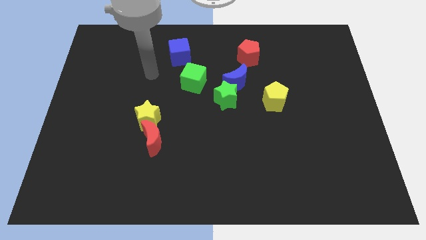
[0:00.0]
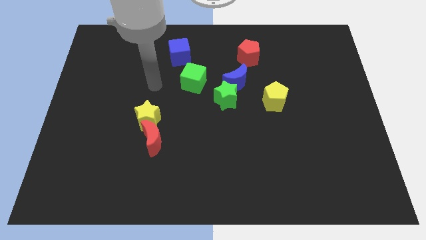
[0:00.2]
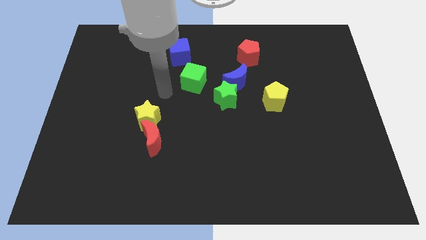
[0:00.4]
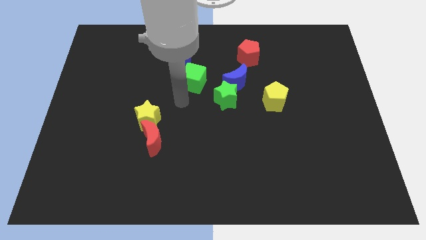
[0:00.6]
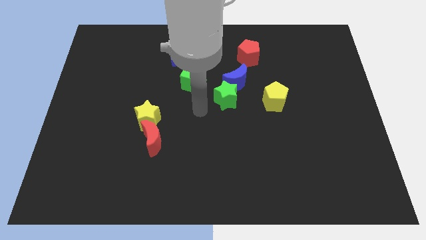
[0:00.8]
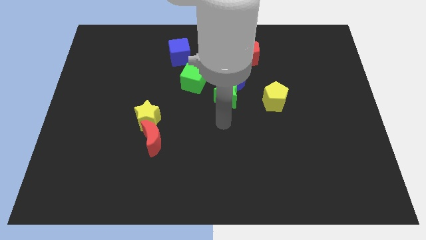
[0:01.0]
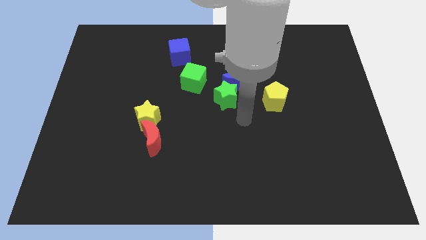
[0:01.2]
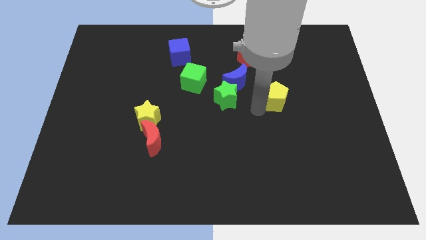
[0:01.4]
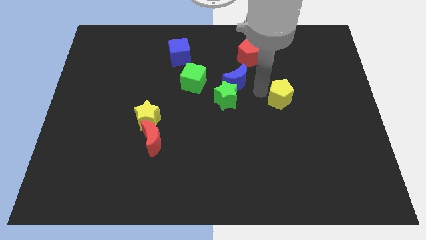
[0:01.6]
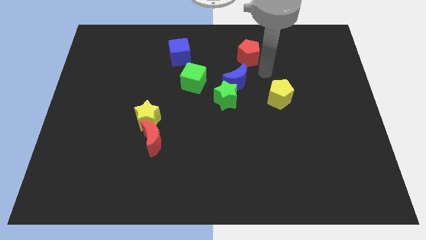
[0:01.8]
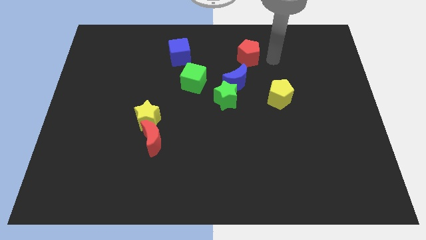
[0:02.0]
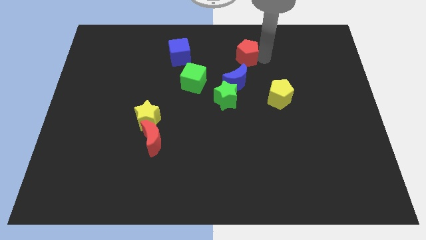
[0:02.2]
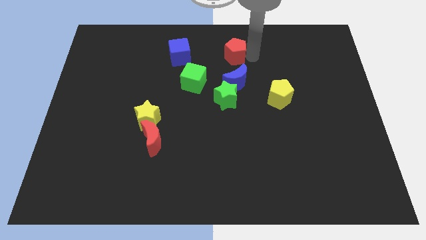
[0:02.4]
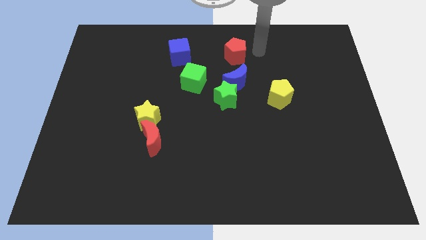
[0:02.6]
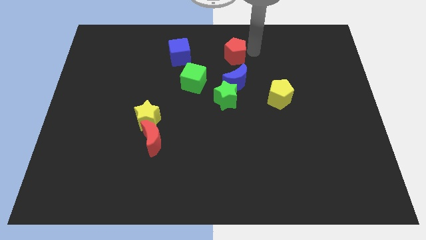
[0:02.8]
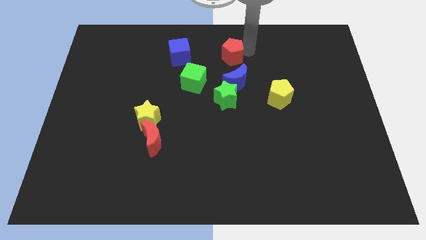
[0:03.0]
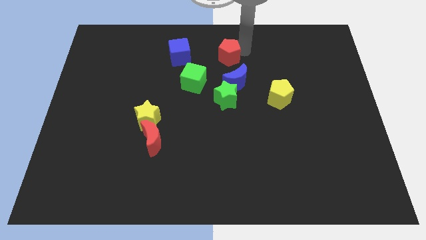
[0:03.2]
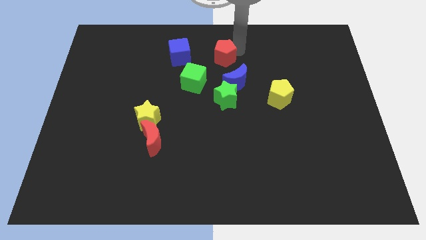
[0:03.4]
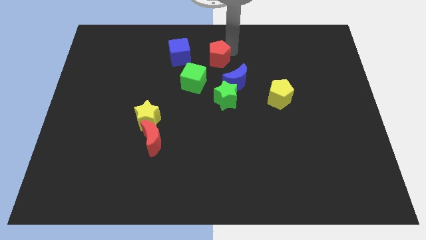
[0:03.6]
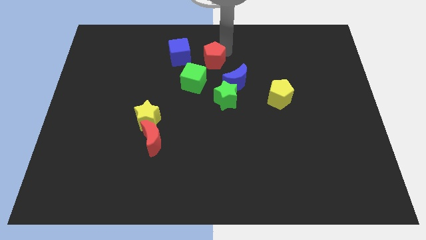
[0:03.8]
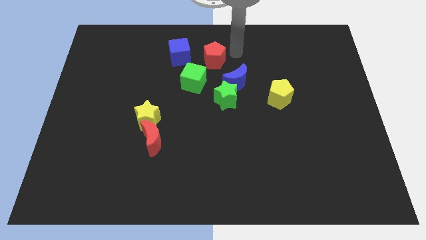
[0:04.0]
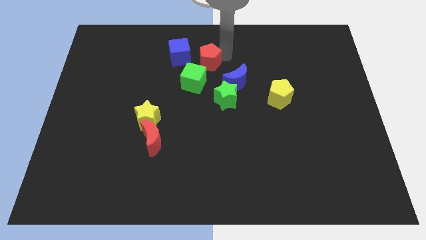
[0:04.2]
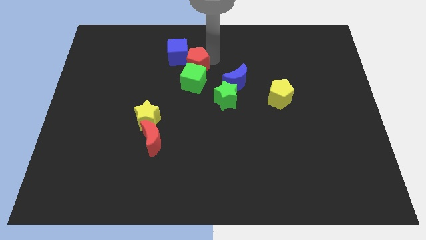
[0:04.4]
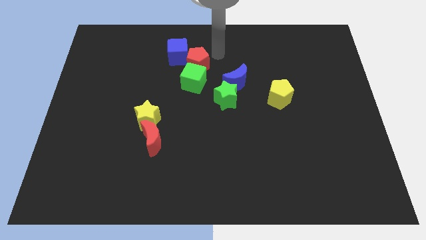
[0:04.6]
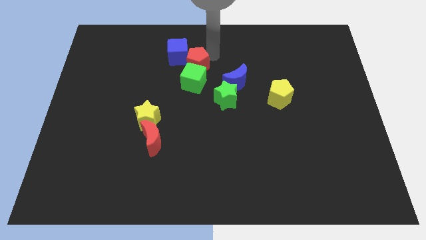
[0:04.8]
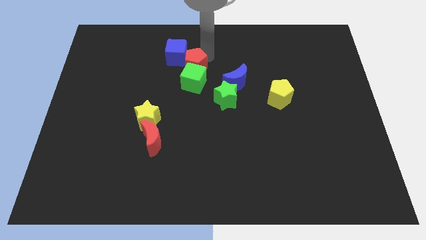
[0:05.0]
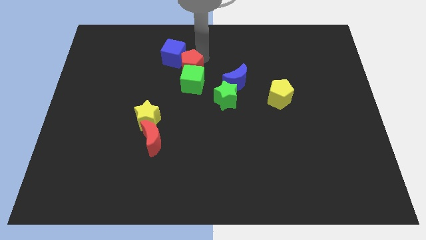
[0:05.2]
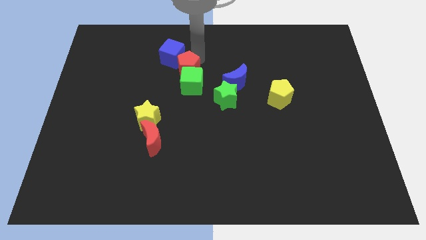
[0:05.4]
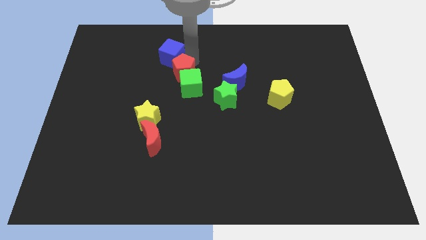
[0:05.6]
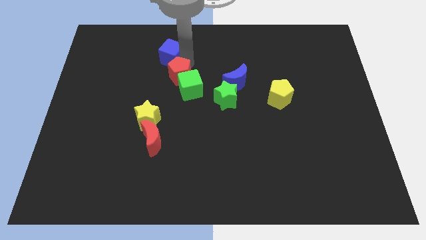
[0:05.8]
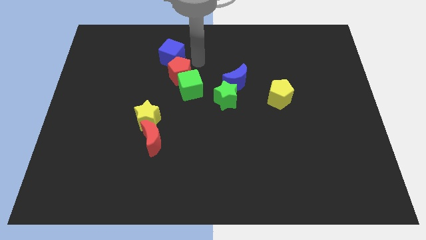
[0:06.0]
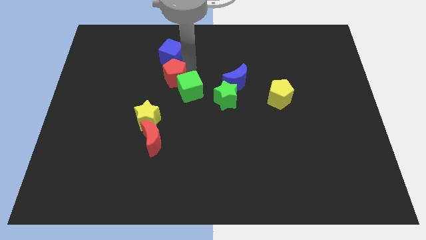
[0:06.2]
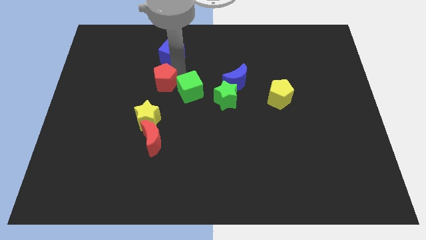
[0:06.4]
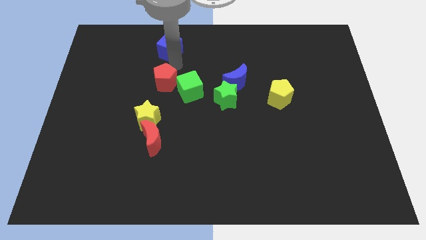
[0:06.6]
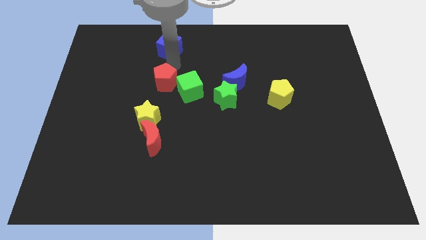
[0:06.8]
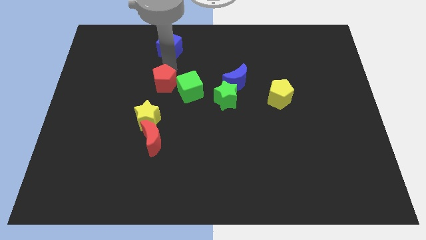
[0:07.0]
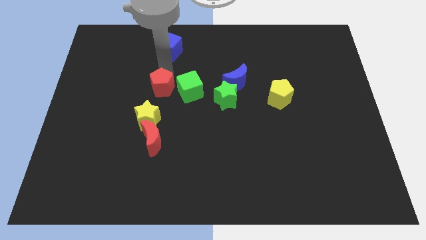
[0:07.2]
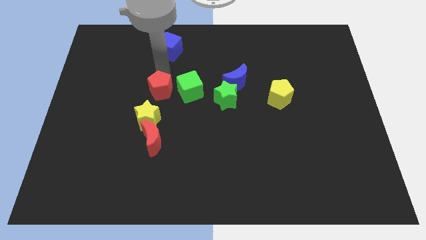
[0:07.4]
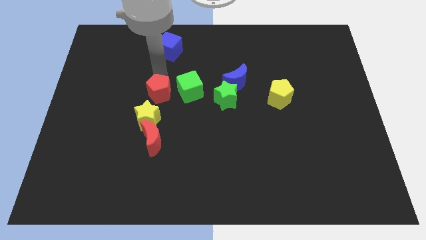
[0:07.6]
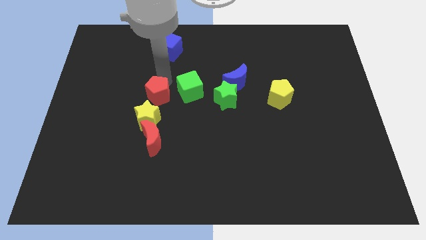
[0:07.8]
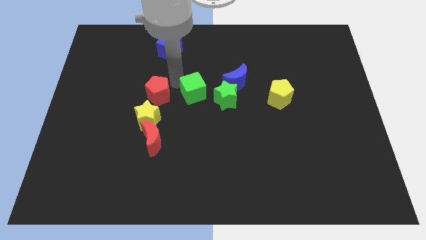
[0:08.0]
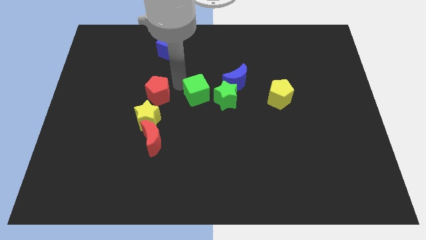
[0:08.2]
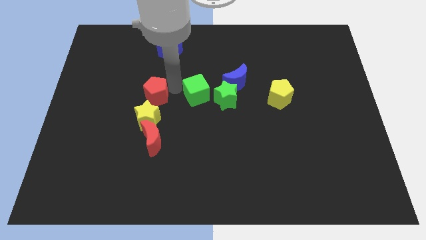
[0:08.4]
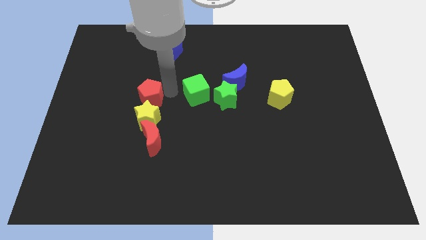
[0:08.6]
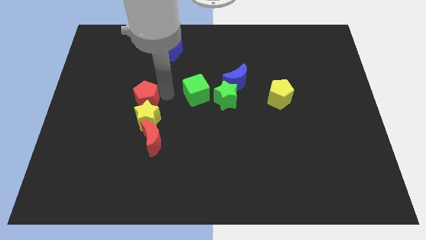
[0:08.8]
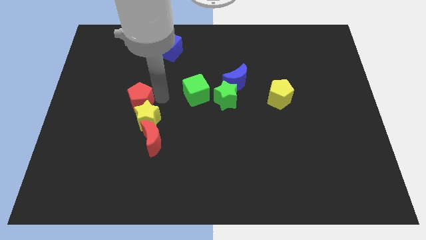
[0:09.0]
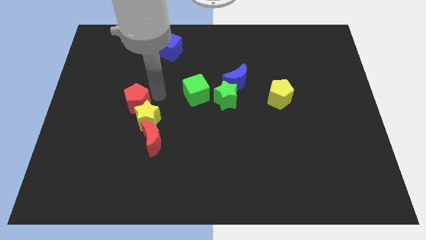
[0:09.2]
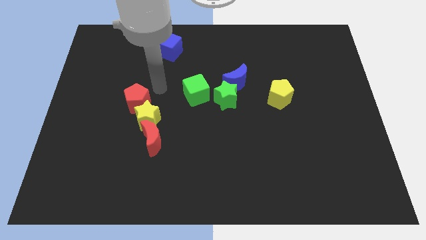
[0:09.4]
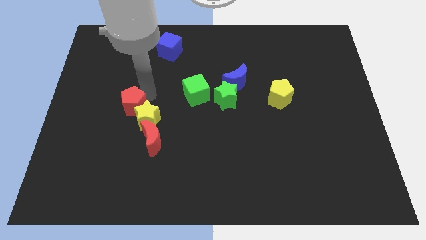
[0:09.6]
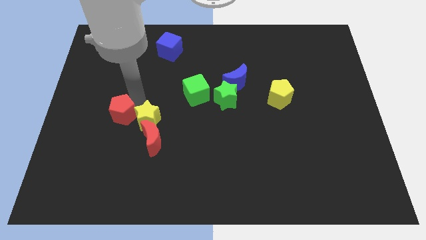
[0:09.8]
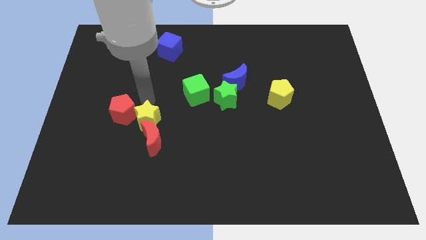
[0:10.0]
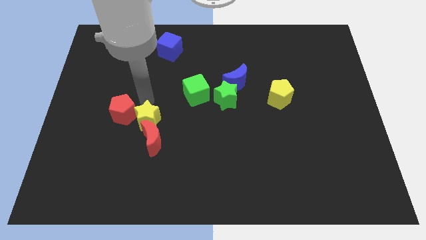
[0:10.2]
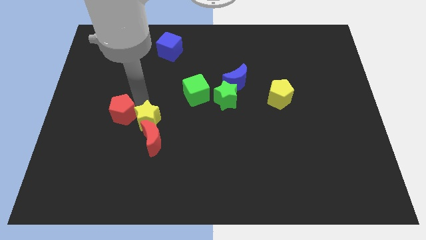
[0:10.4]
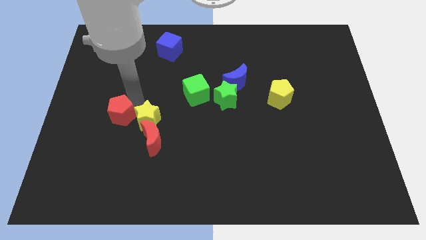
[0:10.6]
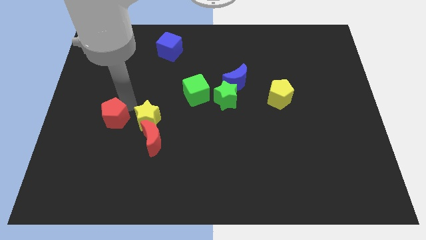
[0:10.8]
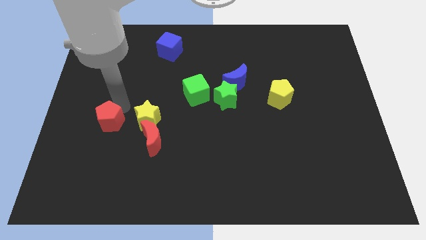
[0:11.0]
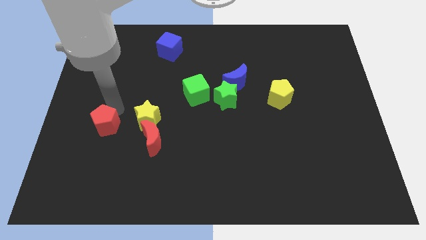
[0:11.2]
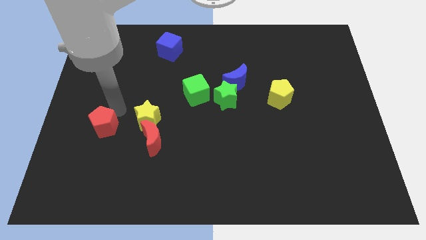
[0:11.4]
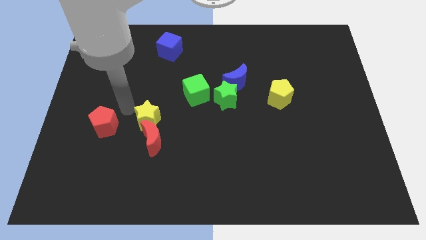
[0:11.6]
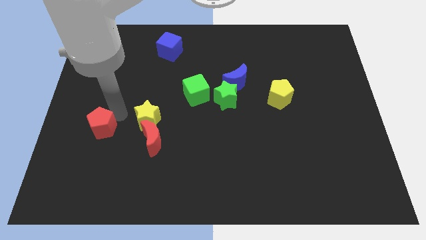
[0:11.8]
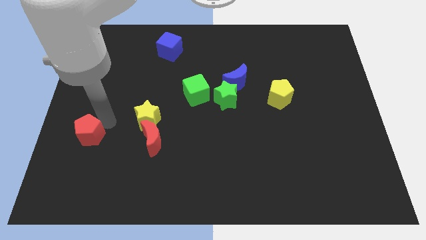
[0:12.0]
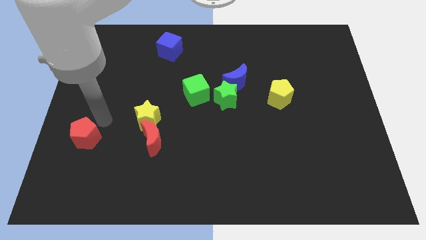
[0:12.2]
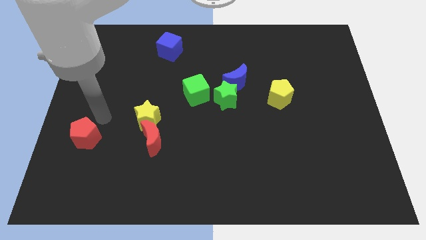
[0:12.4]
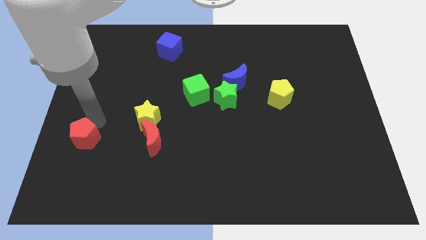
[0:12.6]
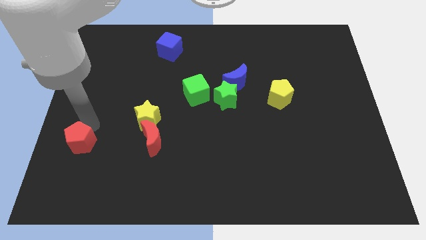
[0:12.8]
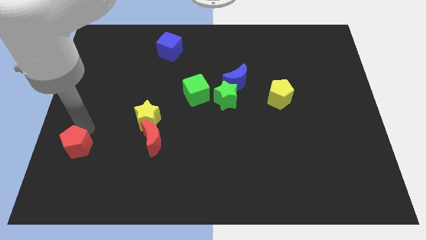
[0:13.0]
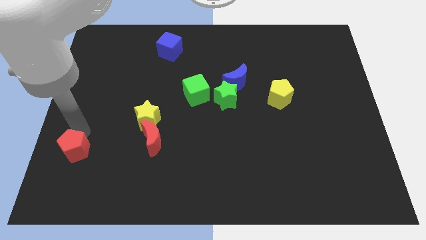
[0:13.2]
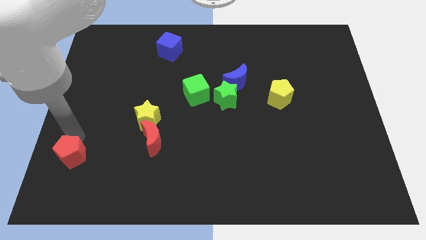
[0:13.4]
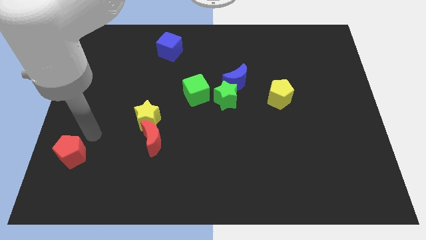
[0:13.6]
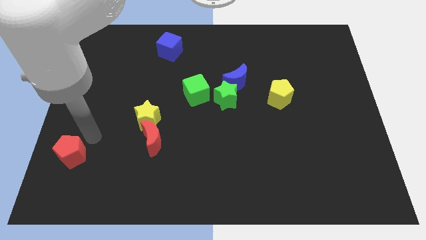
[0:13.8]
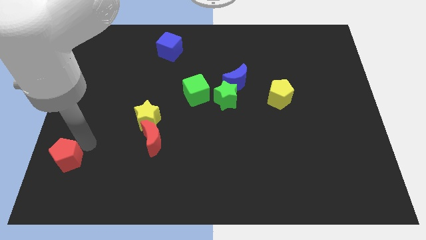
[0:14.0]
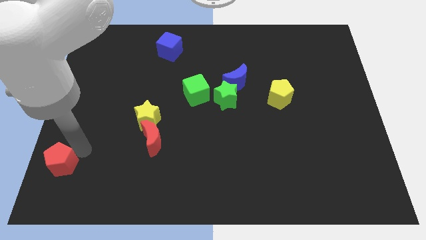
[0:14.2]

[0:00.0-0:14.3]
slide the red pentagon to the bottom left corner
